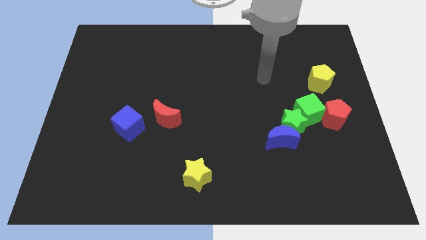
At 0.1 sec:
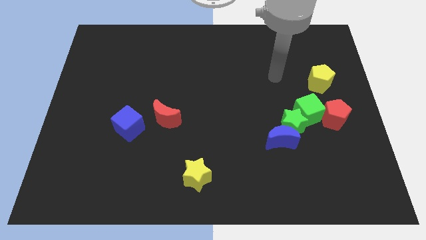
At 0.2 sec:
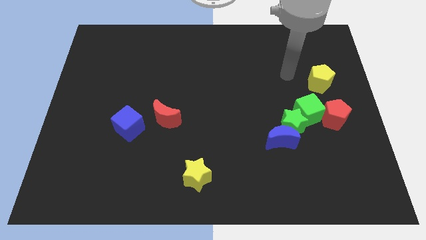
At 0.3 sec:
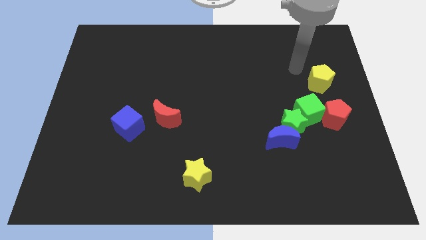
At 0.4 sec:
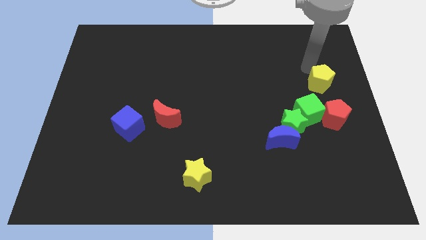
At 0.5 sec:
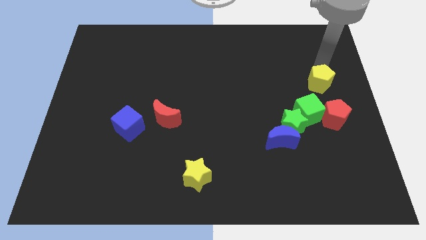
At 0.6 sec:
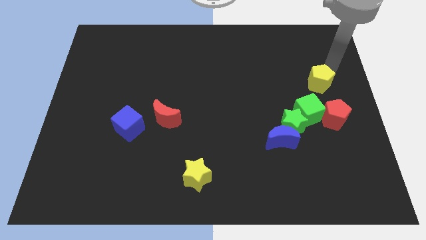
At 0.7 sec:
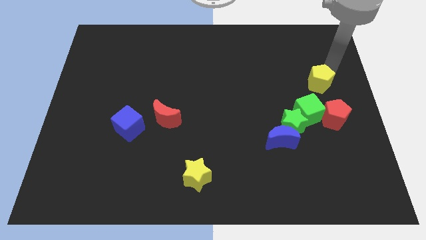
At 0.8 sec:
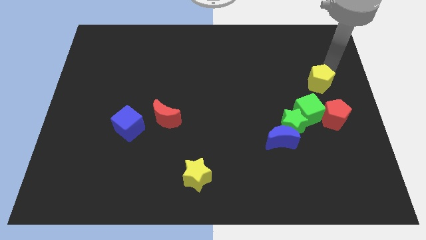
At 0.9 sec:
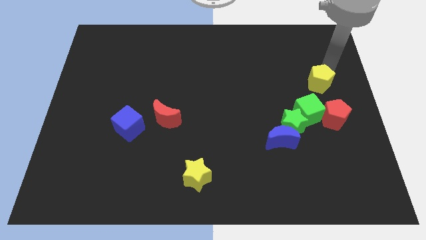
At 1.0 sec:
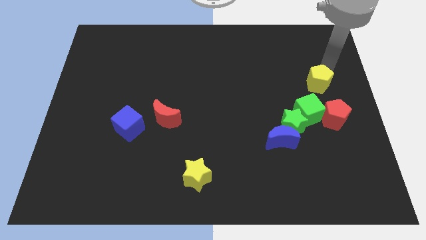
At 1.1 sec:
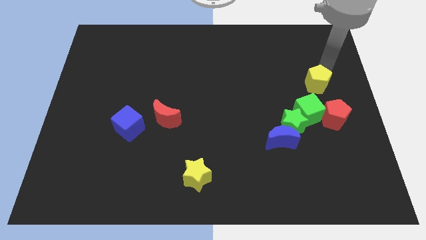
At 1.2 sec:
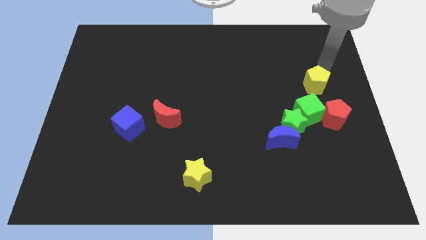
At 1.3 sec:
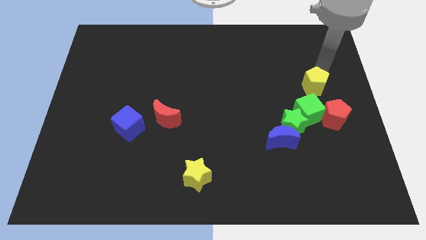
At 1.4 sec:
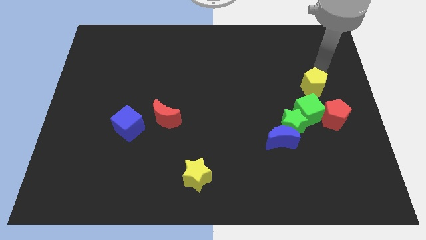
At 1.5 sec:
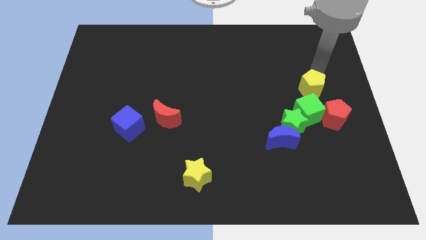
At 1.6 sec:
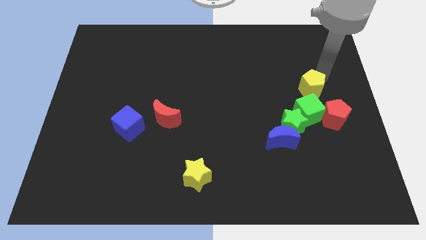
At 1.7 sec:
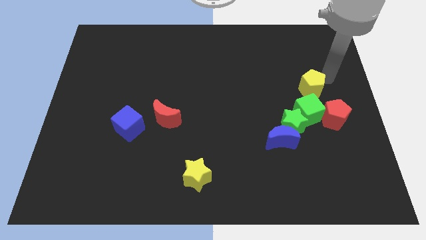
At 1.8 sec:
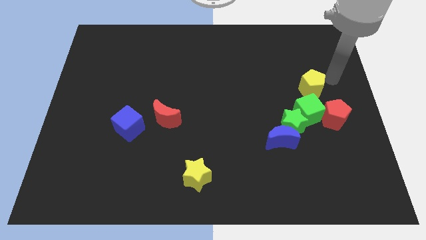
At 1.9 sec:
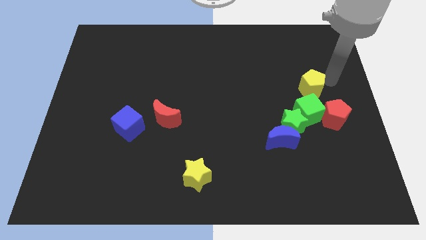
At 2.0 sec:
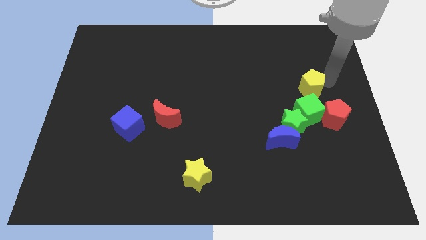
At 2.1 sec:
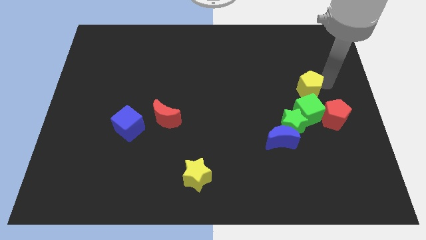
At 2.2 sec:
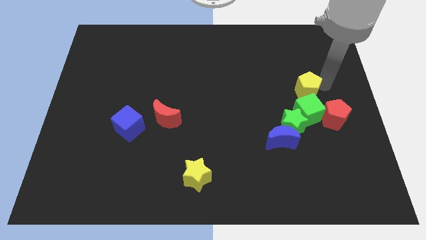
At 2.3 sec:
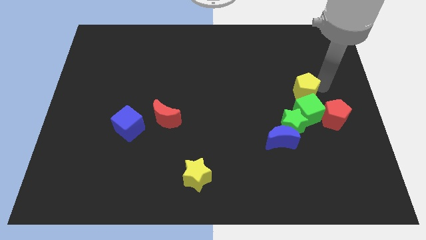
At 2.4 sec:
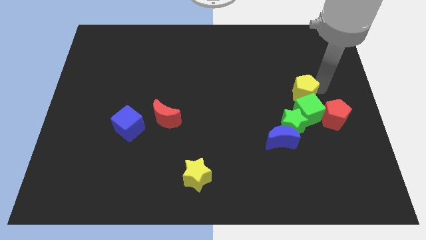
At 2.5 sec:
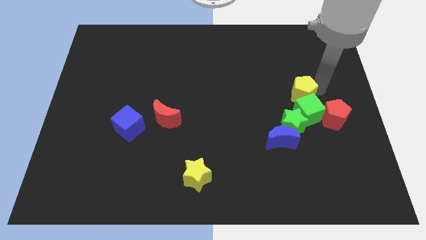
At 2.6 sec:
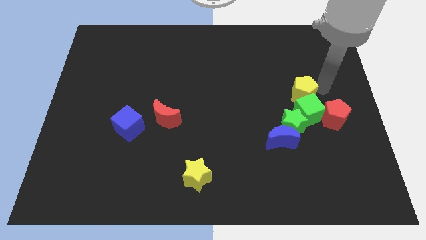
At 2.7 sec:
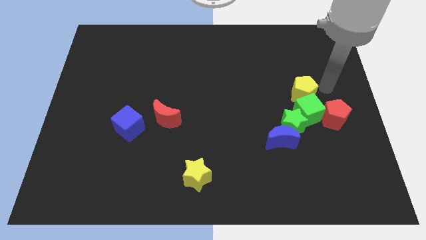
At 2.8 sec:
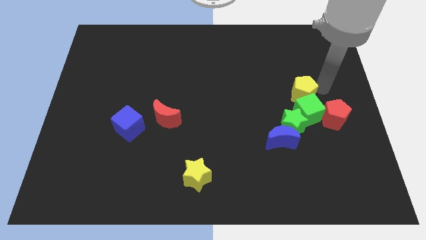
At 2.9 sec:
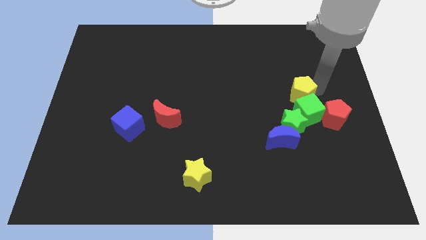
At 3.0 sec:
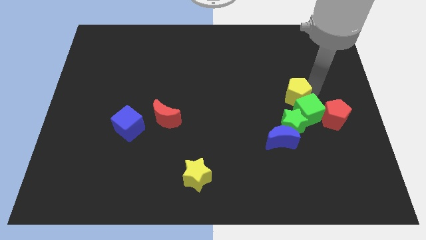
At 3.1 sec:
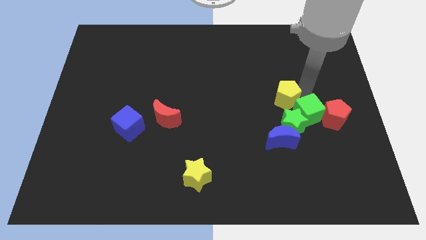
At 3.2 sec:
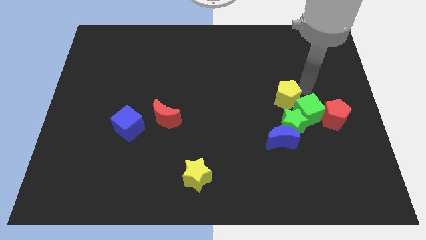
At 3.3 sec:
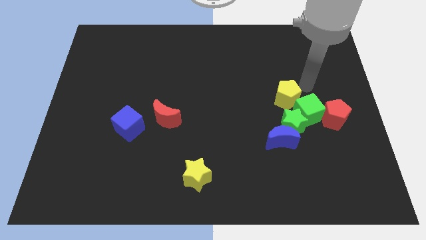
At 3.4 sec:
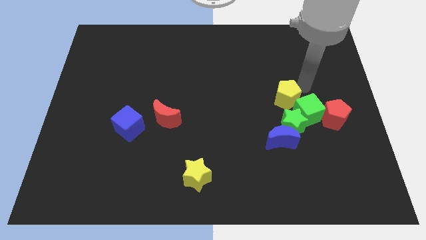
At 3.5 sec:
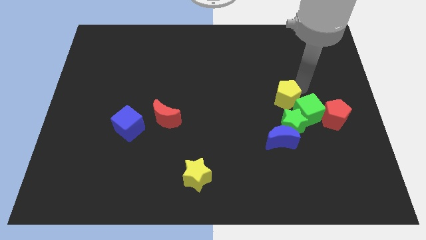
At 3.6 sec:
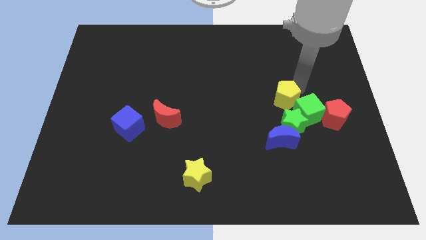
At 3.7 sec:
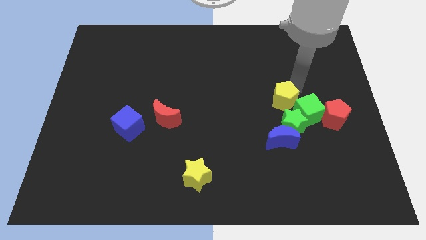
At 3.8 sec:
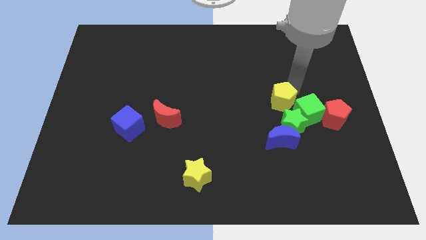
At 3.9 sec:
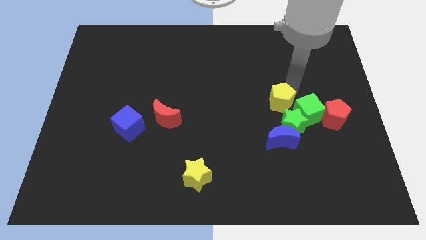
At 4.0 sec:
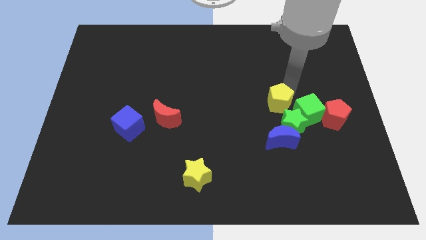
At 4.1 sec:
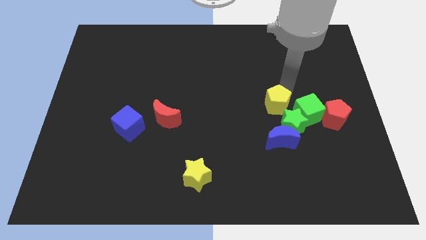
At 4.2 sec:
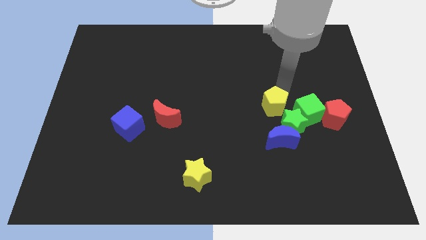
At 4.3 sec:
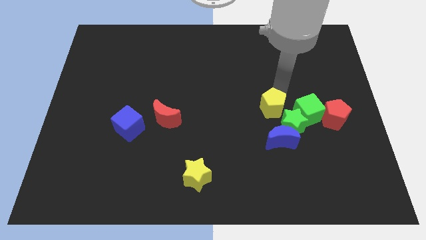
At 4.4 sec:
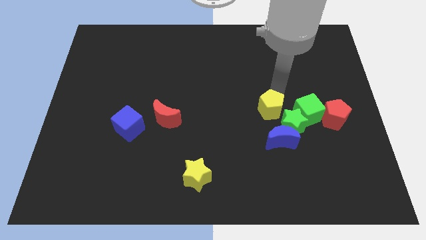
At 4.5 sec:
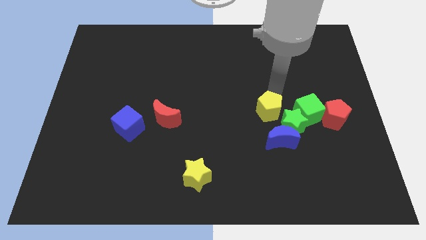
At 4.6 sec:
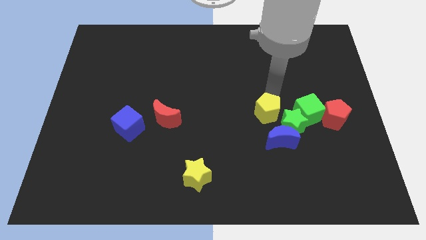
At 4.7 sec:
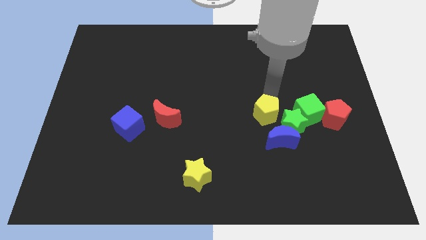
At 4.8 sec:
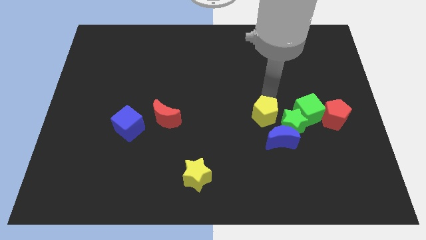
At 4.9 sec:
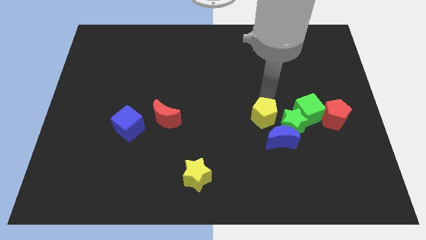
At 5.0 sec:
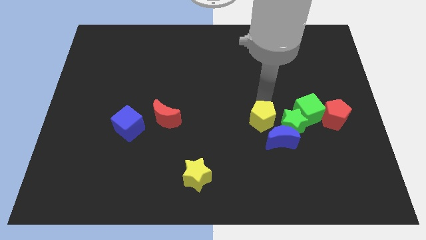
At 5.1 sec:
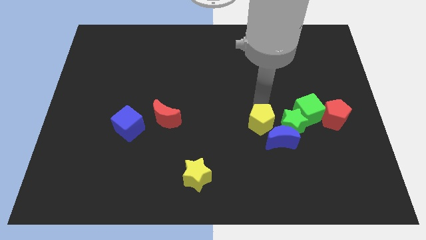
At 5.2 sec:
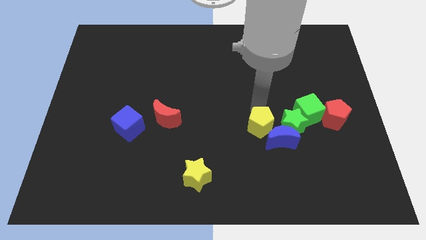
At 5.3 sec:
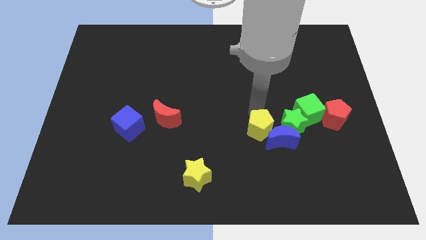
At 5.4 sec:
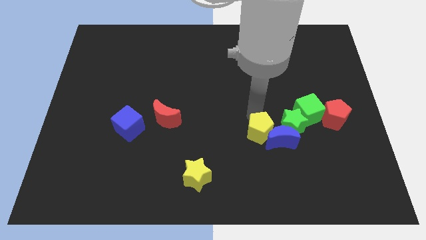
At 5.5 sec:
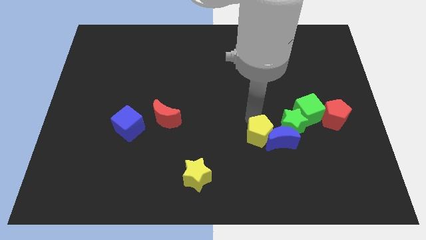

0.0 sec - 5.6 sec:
push the yellow pentagon to the bottom left of the blue moon
